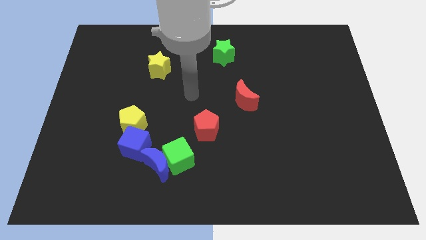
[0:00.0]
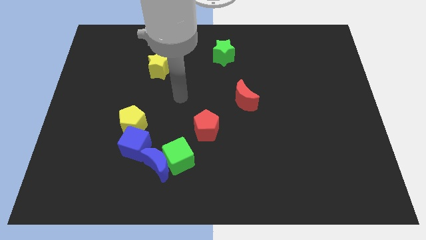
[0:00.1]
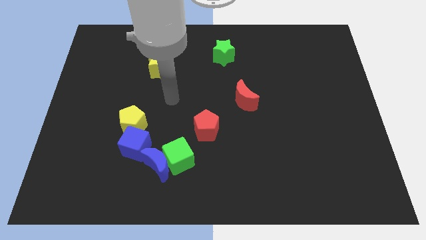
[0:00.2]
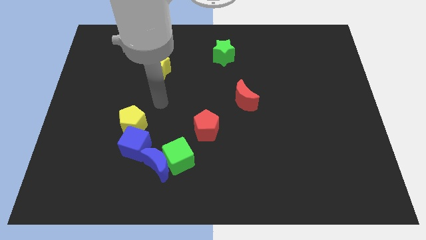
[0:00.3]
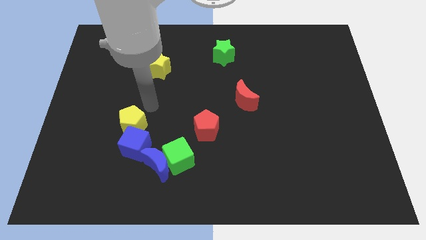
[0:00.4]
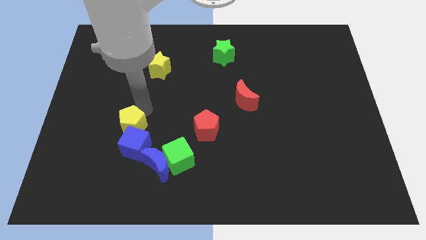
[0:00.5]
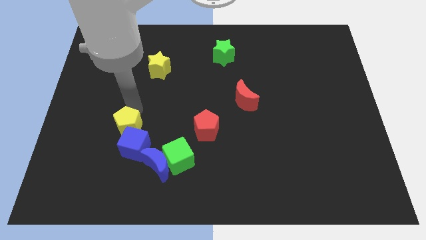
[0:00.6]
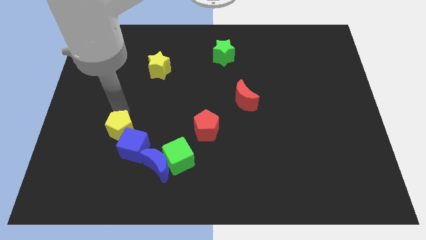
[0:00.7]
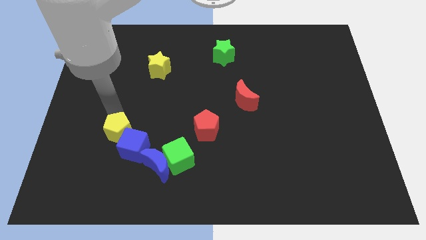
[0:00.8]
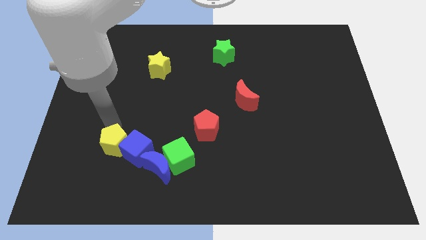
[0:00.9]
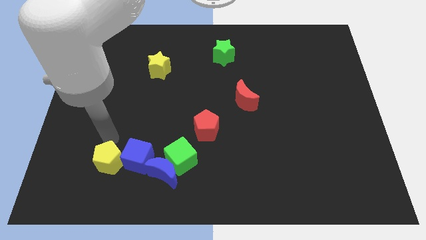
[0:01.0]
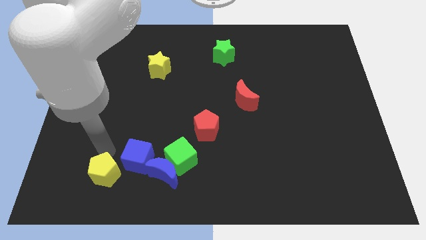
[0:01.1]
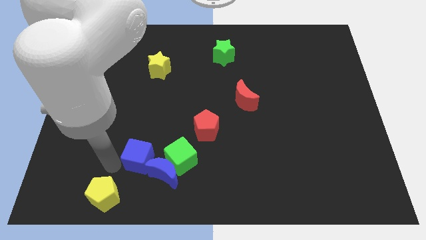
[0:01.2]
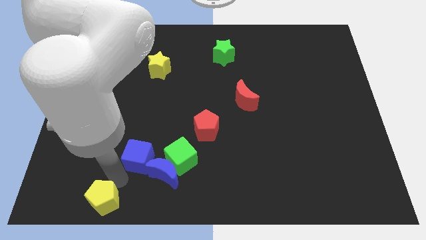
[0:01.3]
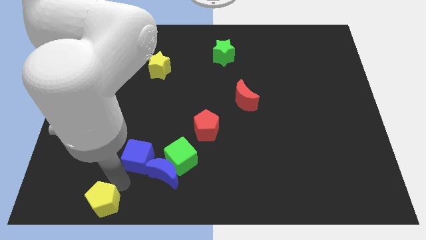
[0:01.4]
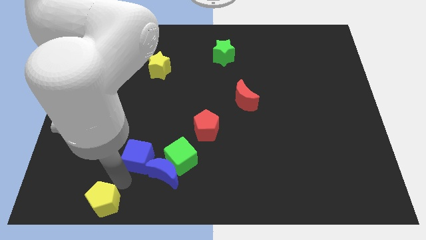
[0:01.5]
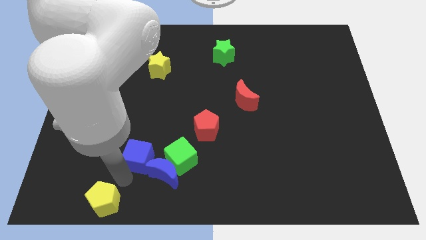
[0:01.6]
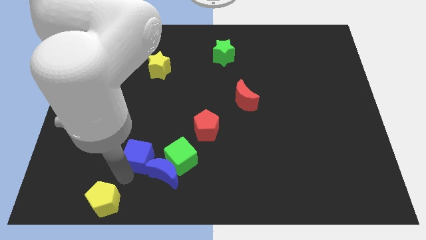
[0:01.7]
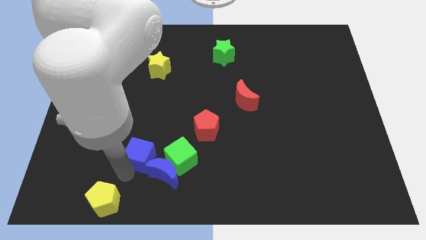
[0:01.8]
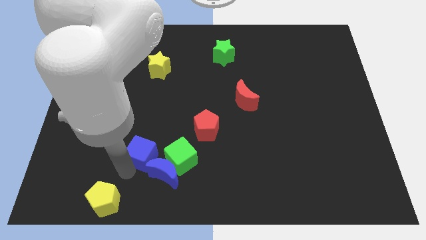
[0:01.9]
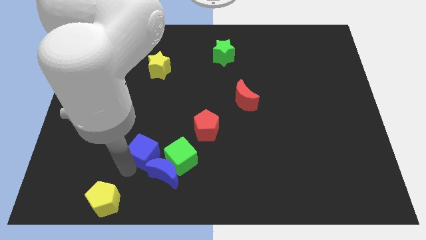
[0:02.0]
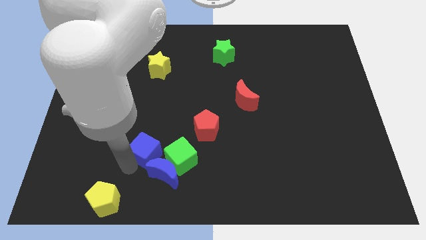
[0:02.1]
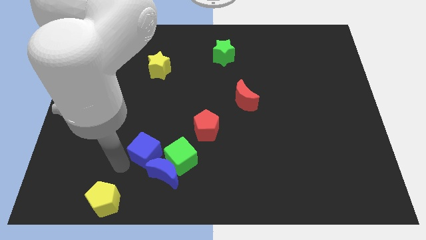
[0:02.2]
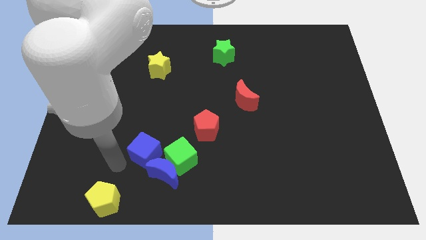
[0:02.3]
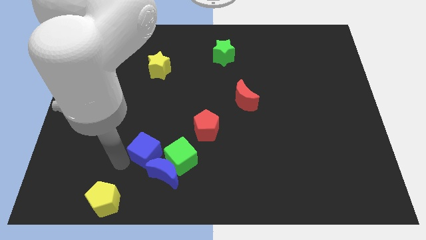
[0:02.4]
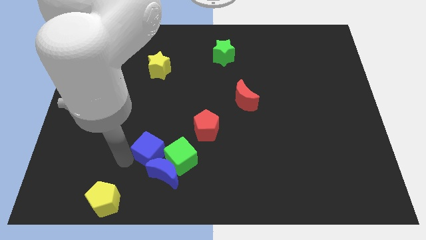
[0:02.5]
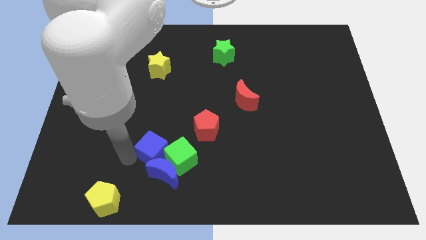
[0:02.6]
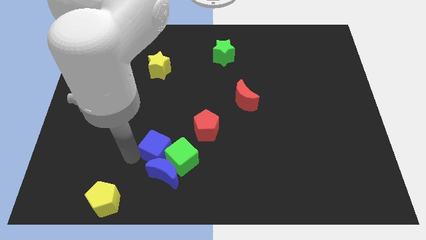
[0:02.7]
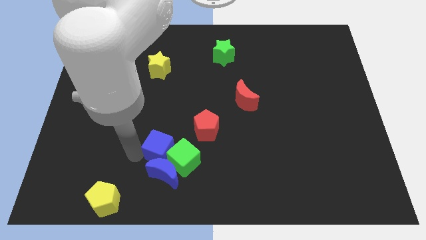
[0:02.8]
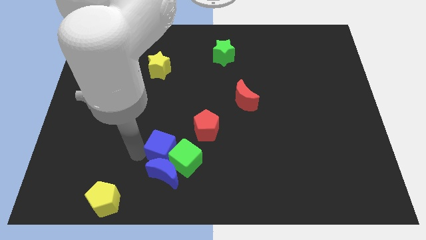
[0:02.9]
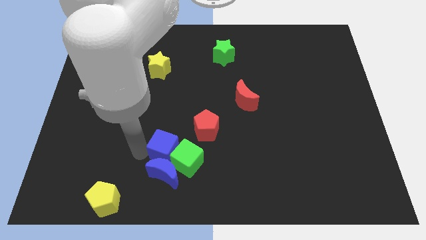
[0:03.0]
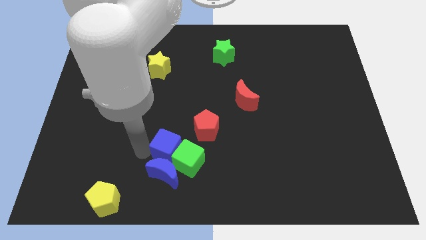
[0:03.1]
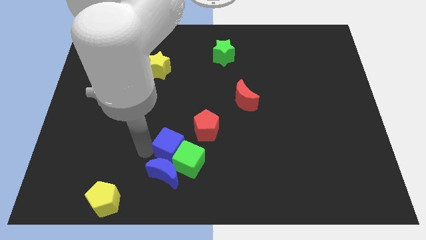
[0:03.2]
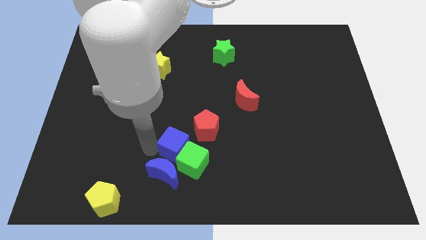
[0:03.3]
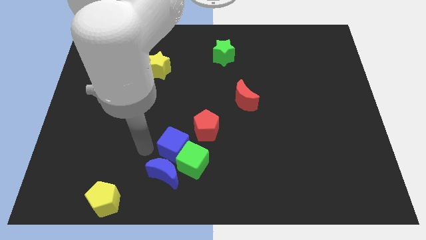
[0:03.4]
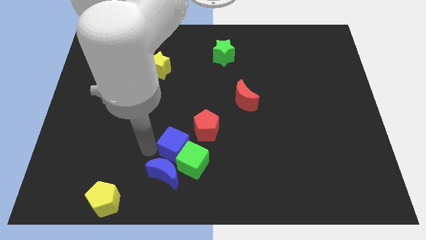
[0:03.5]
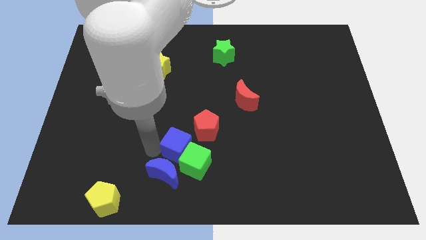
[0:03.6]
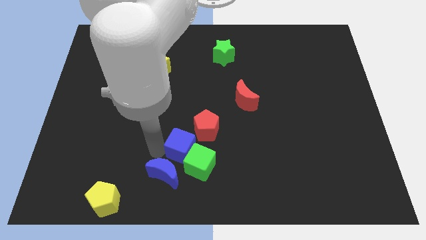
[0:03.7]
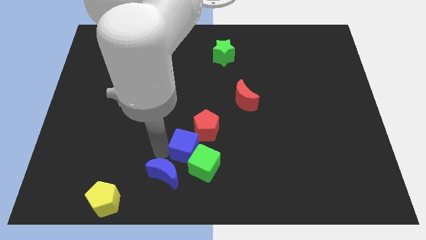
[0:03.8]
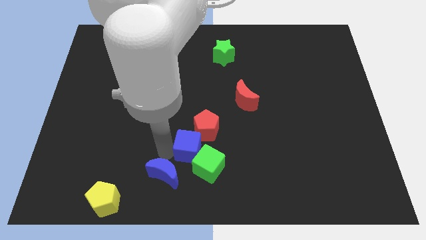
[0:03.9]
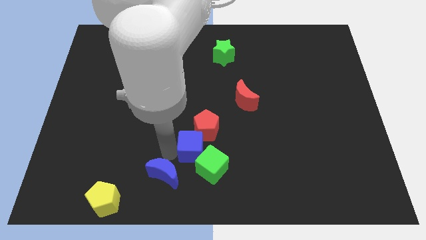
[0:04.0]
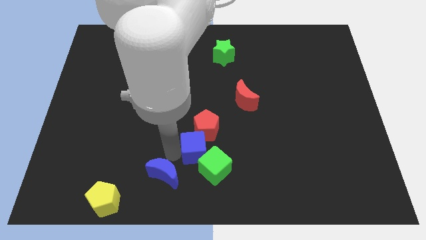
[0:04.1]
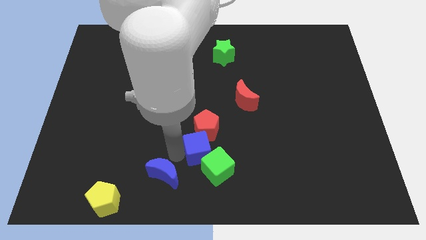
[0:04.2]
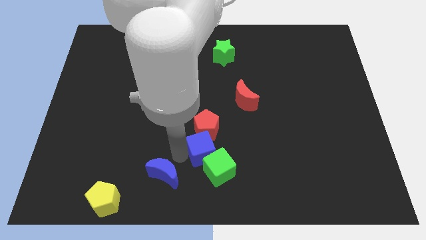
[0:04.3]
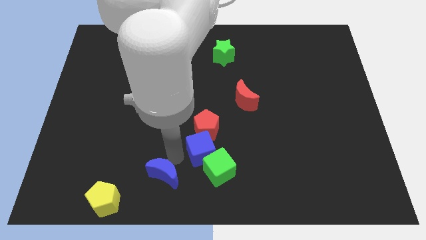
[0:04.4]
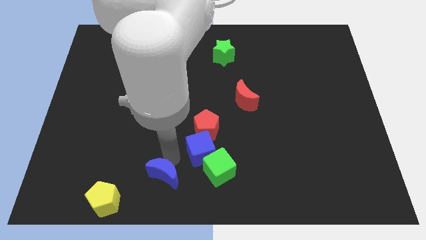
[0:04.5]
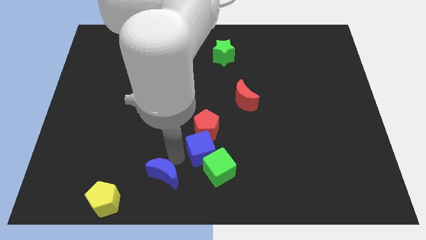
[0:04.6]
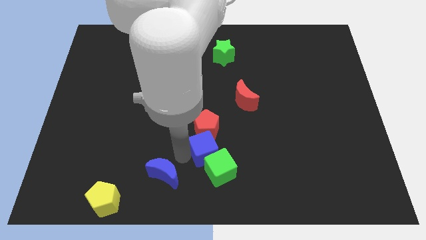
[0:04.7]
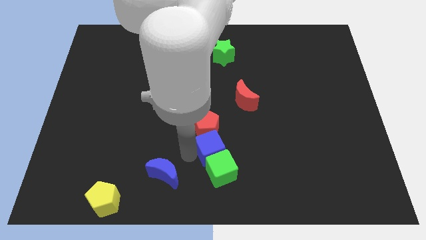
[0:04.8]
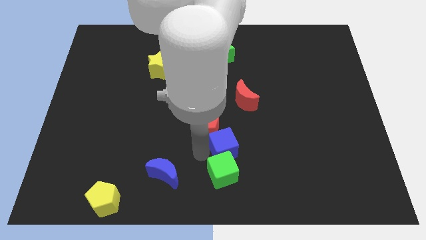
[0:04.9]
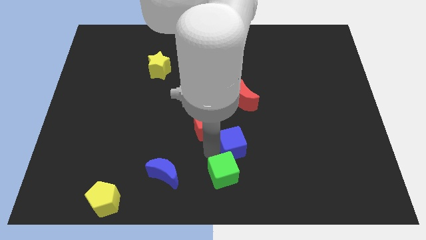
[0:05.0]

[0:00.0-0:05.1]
slide the blue cube right of the red pentagon
